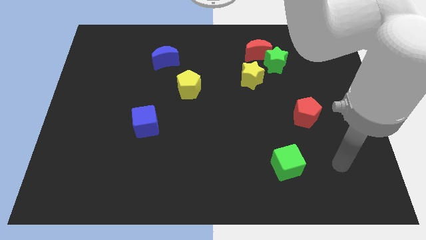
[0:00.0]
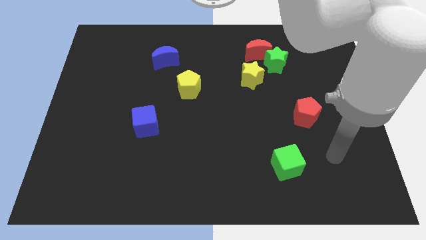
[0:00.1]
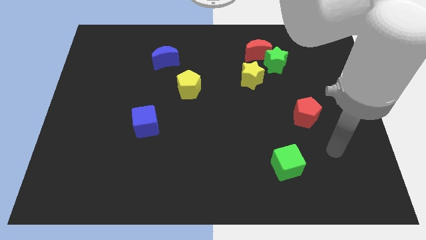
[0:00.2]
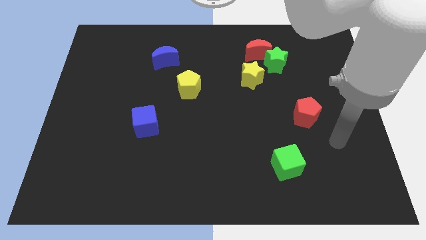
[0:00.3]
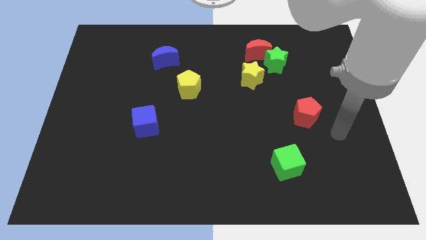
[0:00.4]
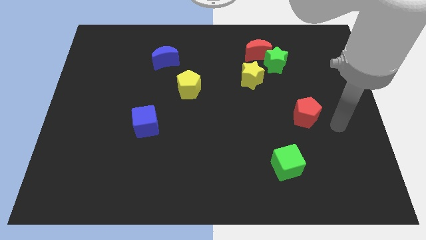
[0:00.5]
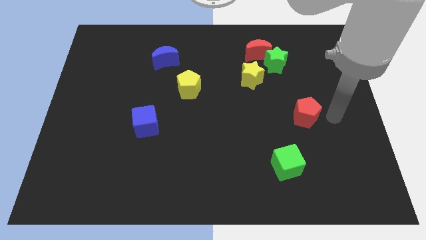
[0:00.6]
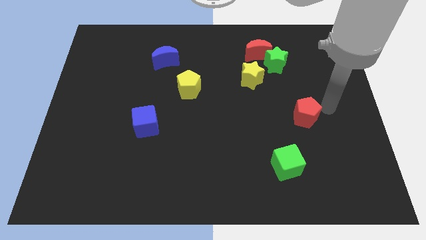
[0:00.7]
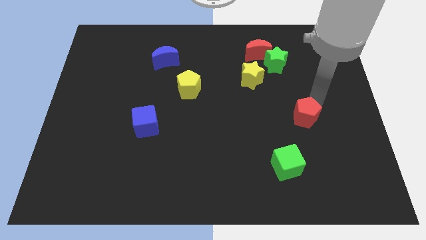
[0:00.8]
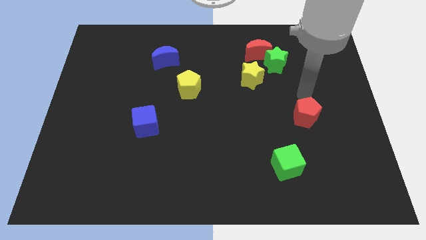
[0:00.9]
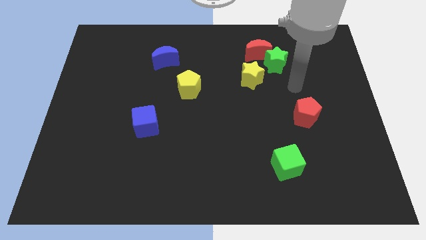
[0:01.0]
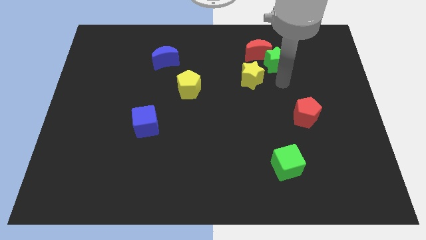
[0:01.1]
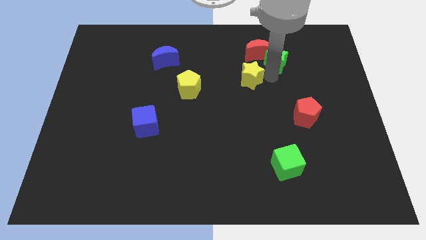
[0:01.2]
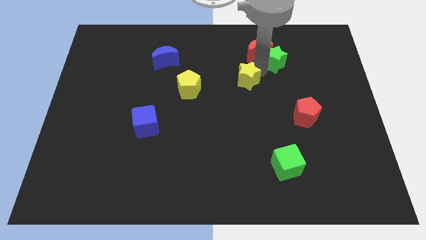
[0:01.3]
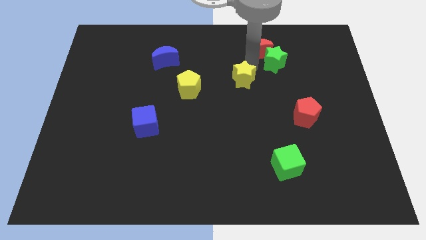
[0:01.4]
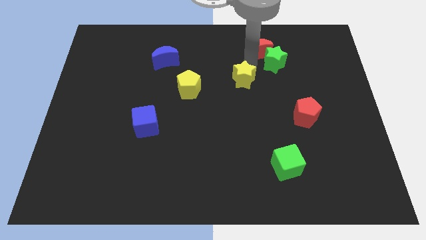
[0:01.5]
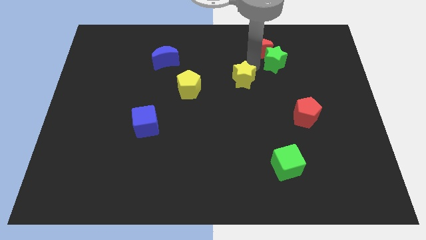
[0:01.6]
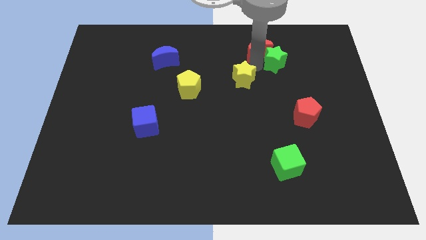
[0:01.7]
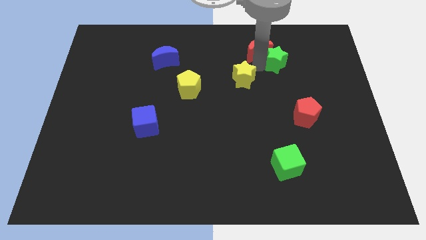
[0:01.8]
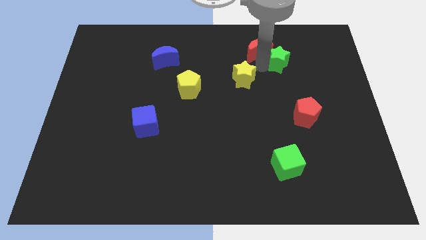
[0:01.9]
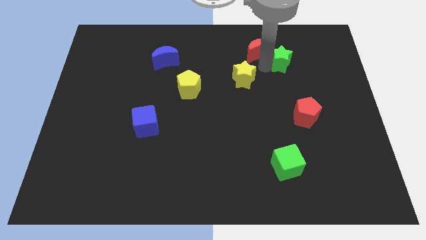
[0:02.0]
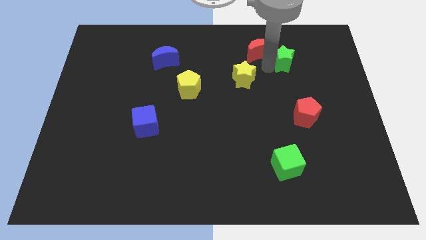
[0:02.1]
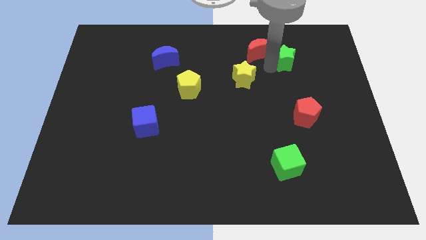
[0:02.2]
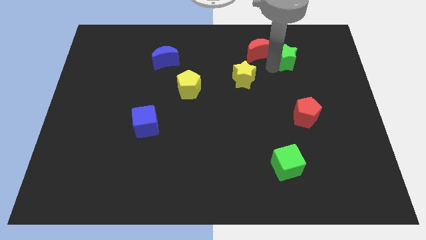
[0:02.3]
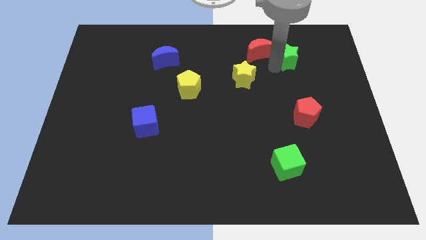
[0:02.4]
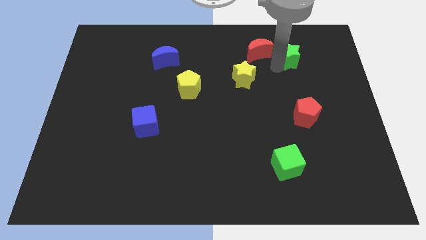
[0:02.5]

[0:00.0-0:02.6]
move the green star away from the red moon and yellow star

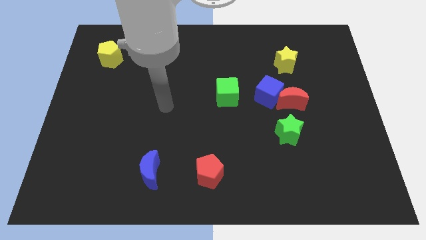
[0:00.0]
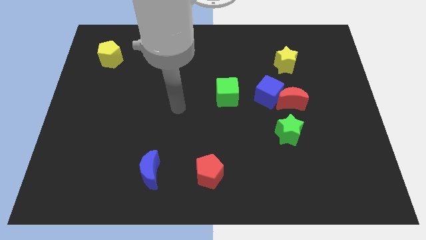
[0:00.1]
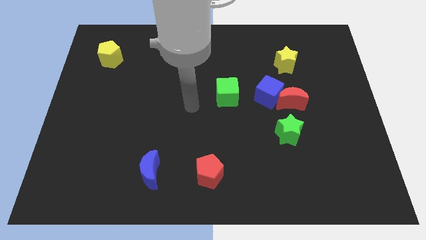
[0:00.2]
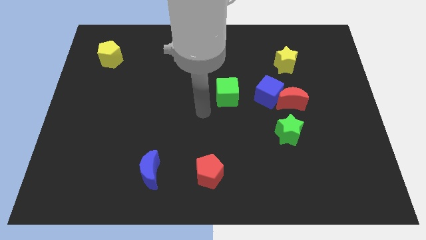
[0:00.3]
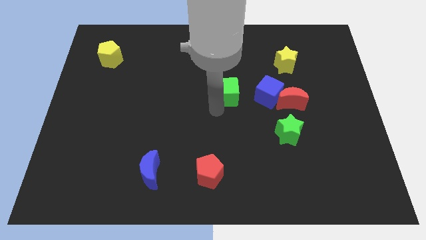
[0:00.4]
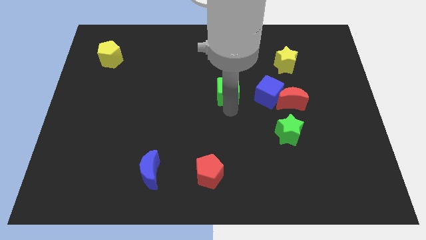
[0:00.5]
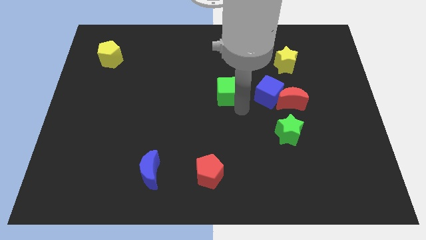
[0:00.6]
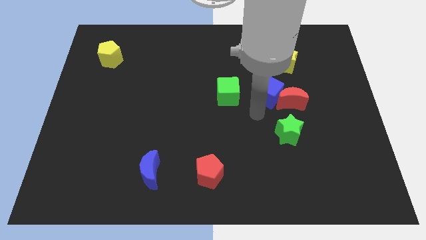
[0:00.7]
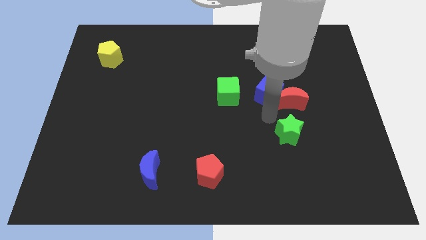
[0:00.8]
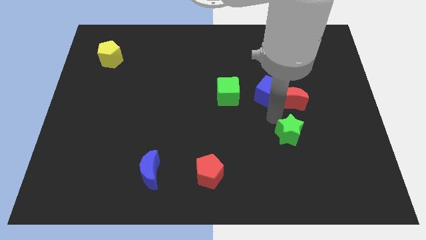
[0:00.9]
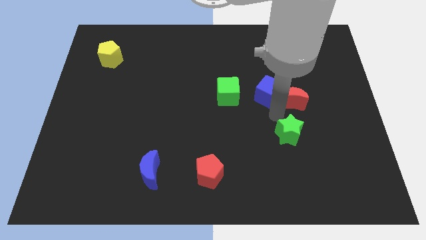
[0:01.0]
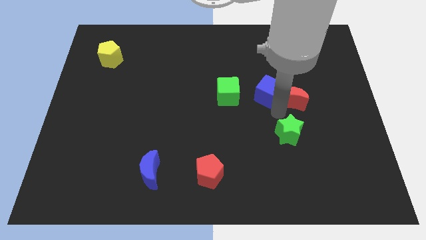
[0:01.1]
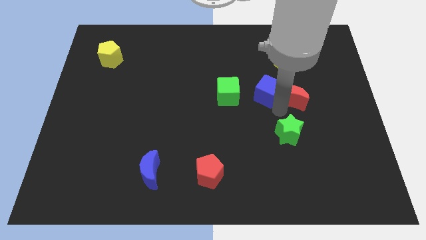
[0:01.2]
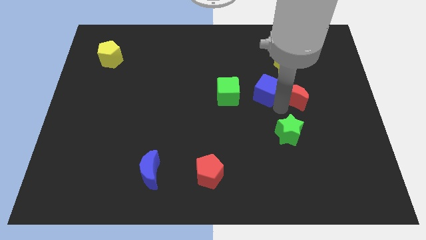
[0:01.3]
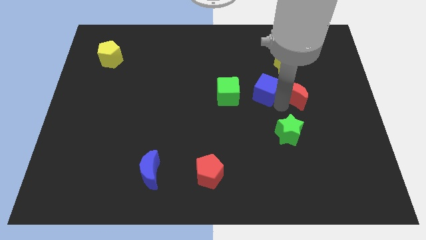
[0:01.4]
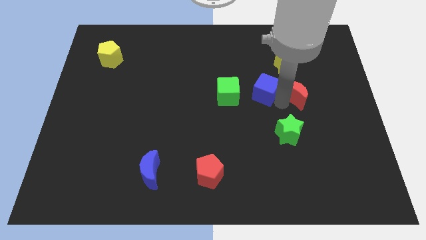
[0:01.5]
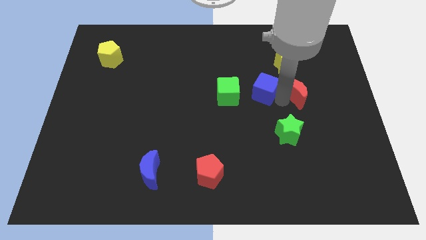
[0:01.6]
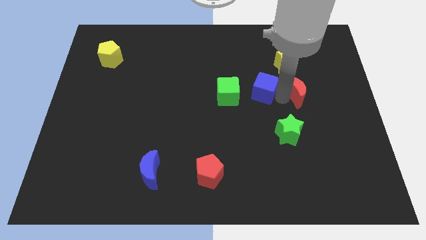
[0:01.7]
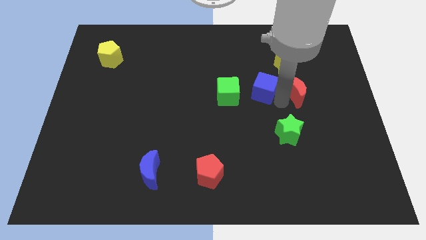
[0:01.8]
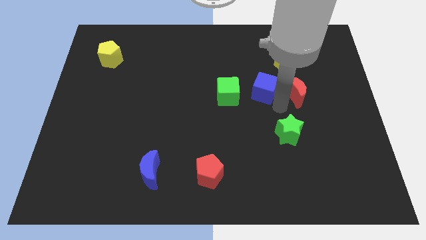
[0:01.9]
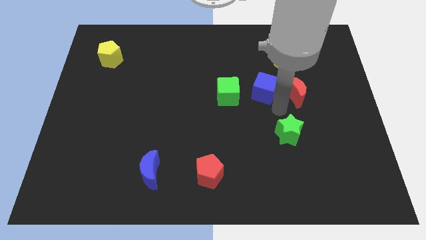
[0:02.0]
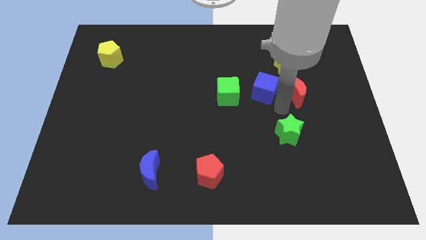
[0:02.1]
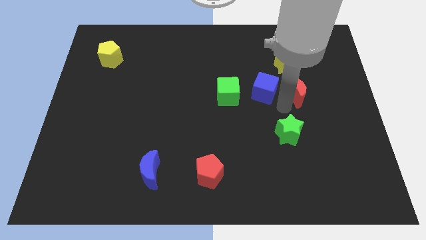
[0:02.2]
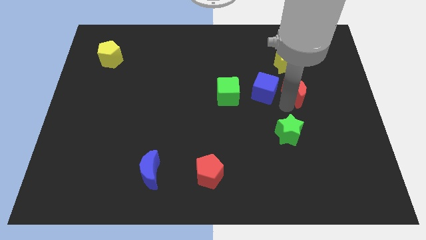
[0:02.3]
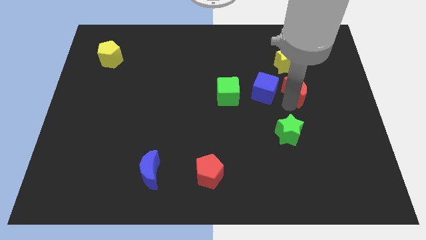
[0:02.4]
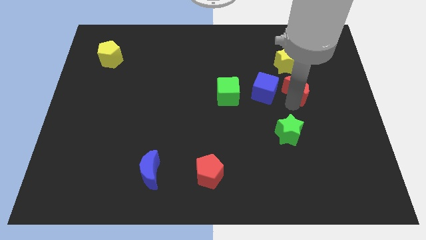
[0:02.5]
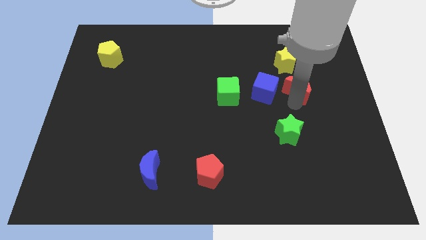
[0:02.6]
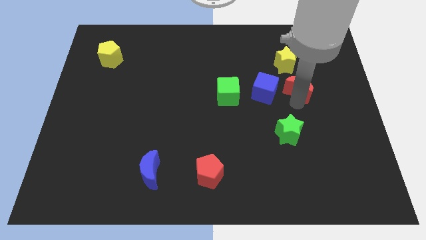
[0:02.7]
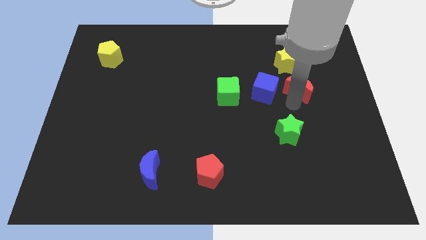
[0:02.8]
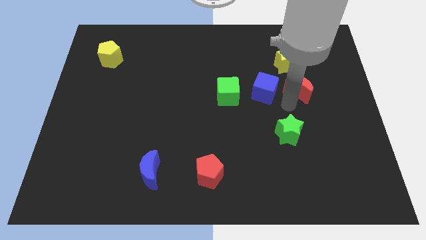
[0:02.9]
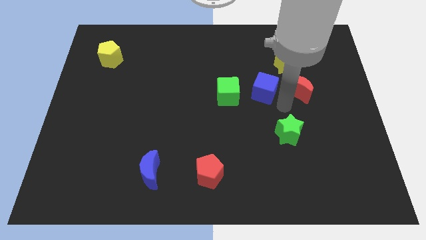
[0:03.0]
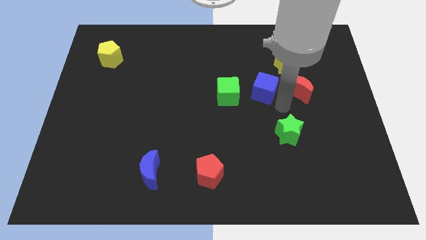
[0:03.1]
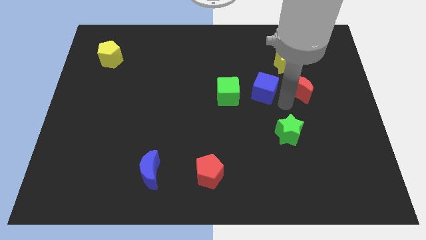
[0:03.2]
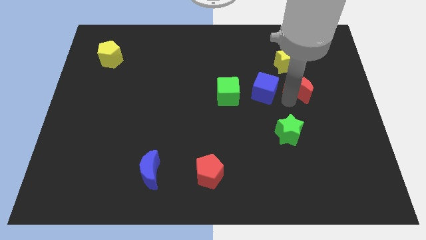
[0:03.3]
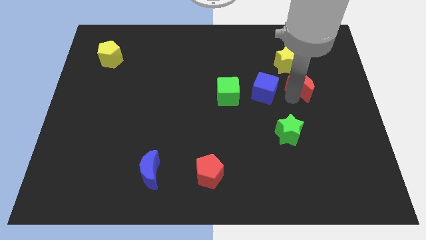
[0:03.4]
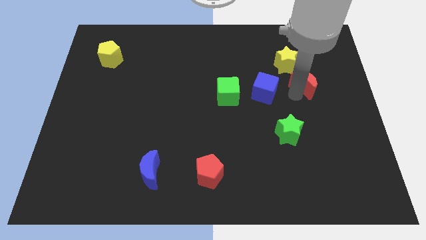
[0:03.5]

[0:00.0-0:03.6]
move the red moon away from the blue cube and green star

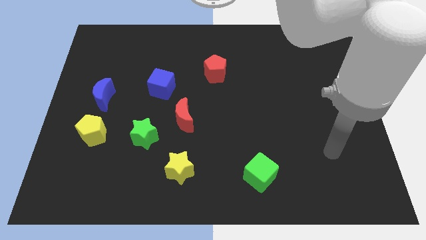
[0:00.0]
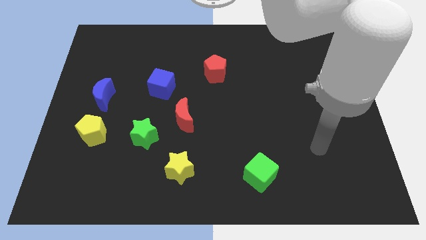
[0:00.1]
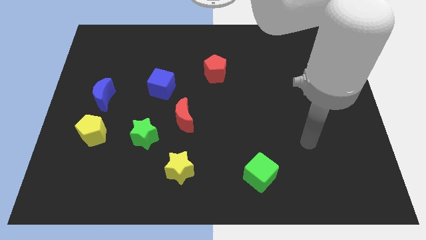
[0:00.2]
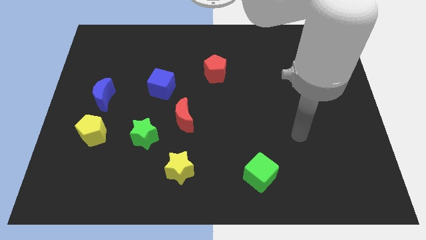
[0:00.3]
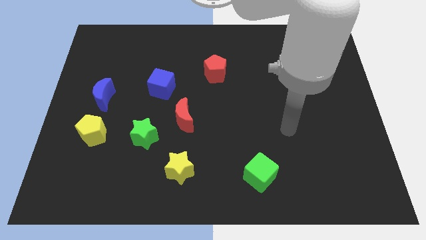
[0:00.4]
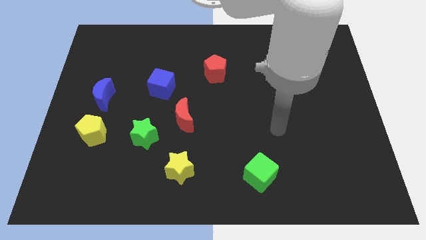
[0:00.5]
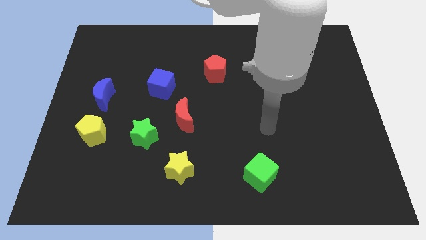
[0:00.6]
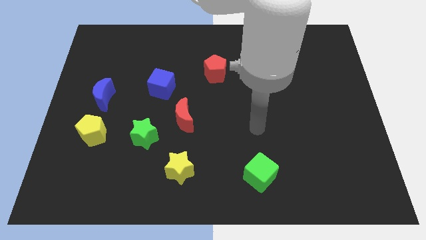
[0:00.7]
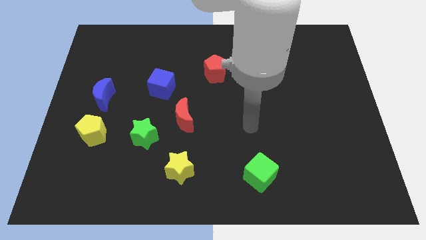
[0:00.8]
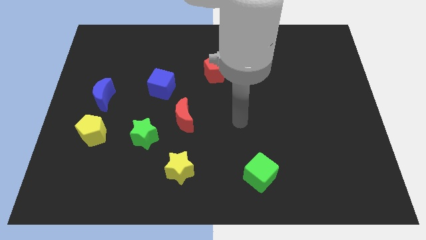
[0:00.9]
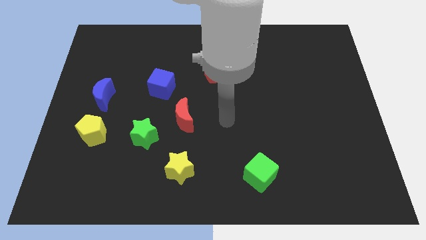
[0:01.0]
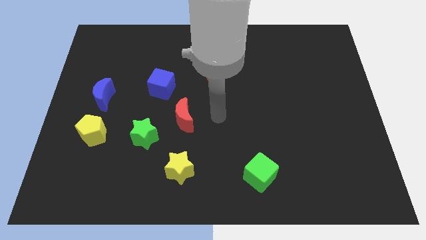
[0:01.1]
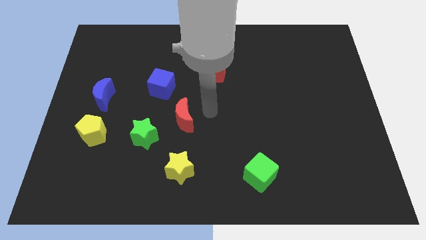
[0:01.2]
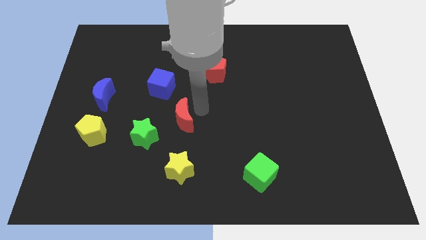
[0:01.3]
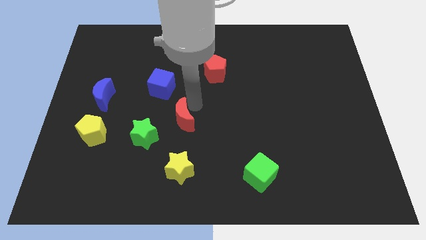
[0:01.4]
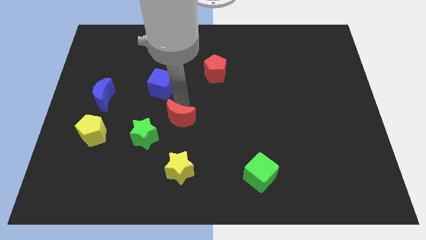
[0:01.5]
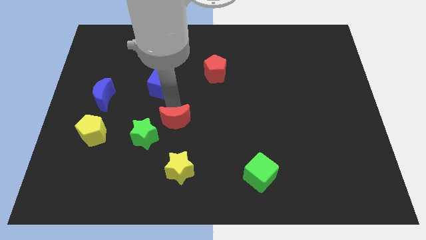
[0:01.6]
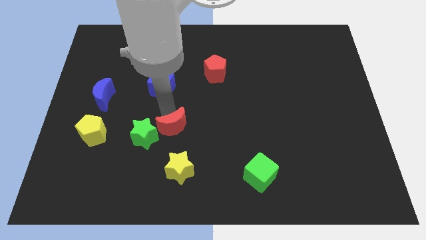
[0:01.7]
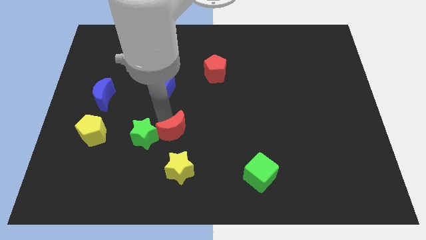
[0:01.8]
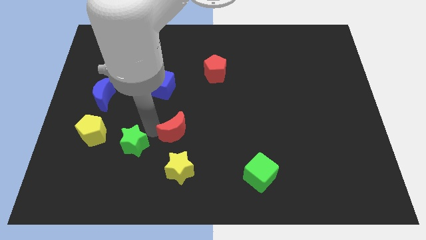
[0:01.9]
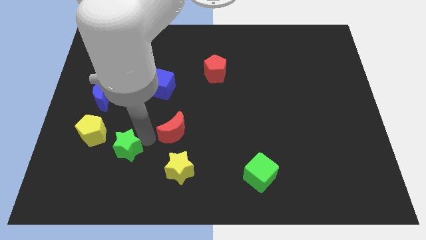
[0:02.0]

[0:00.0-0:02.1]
move the red moon away from the green star

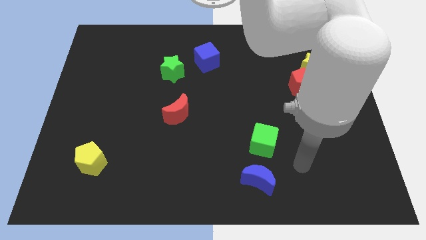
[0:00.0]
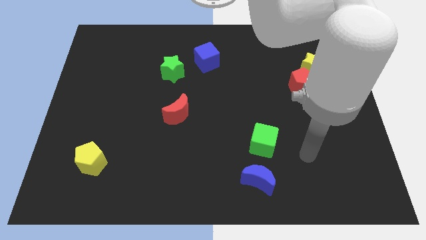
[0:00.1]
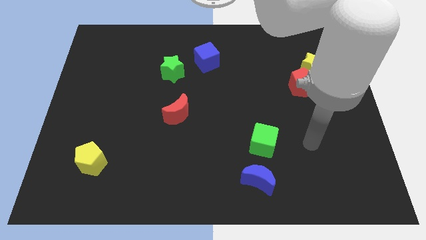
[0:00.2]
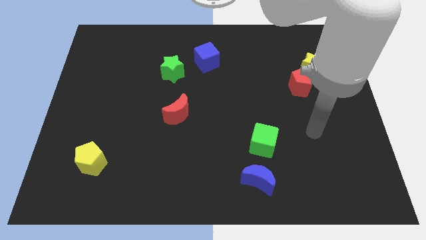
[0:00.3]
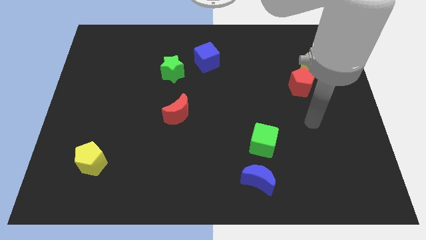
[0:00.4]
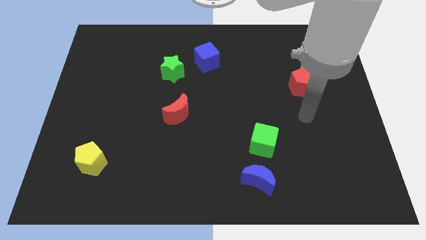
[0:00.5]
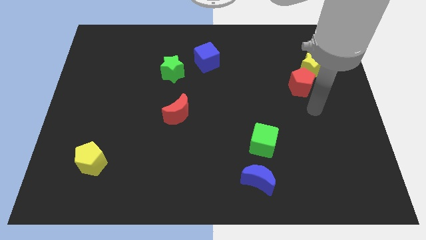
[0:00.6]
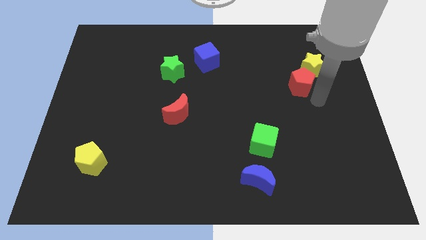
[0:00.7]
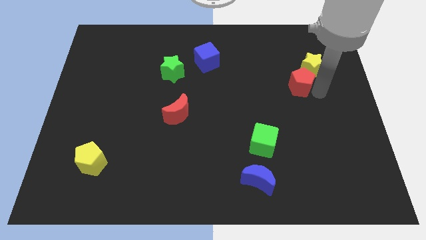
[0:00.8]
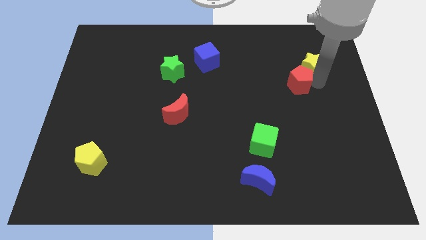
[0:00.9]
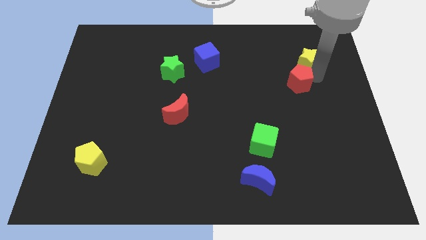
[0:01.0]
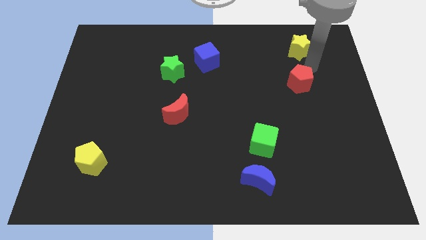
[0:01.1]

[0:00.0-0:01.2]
move the red pentagon away from the yellow star

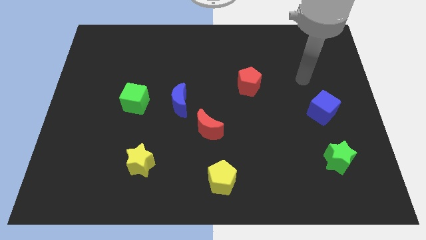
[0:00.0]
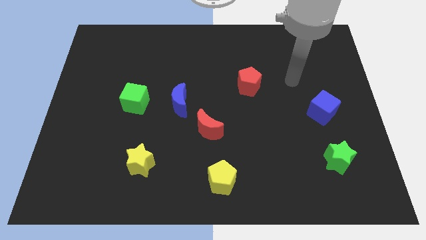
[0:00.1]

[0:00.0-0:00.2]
move the red moon away from the blue moon
